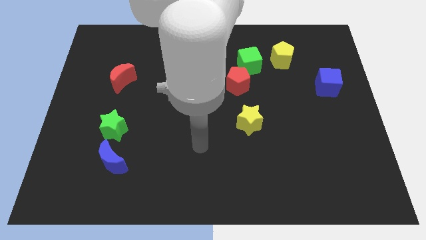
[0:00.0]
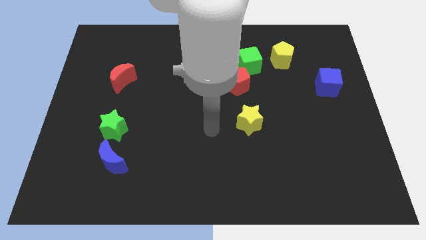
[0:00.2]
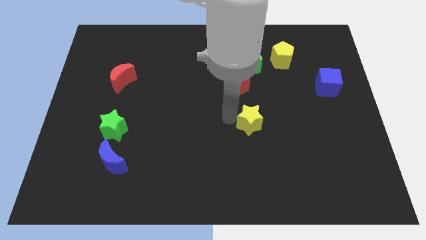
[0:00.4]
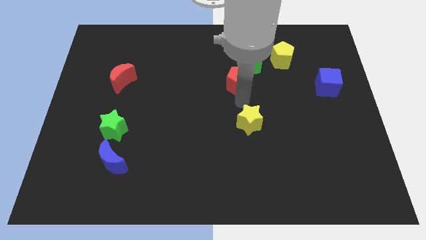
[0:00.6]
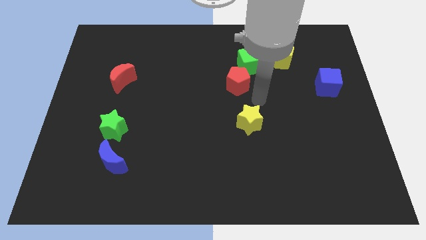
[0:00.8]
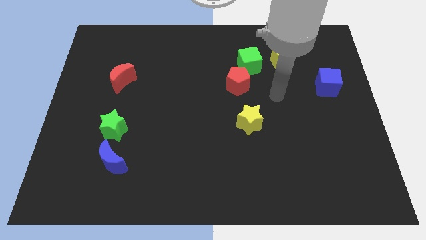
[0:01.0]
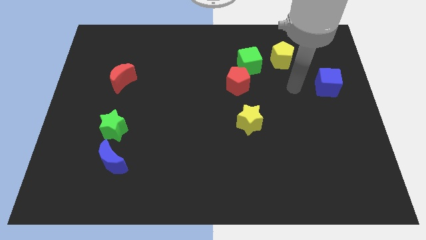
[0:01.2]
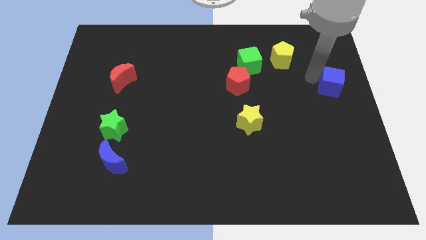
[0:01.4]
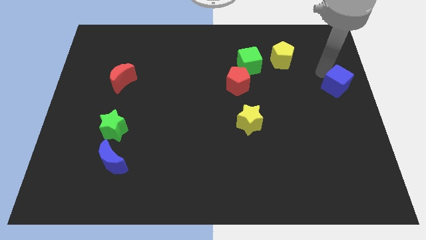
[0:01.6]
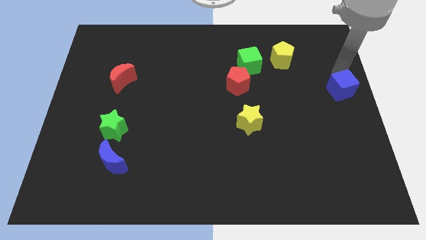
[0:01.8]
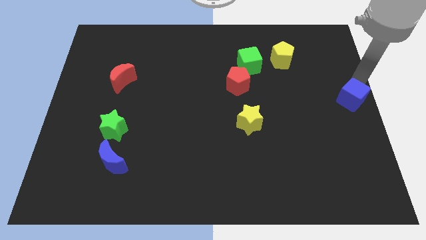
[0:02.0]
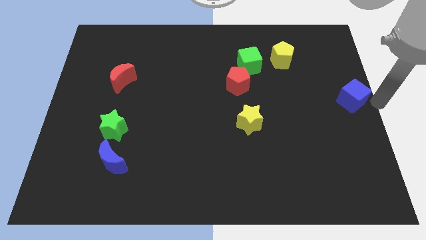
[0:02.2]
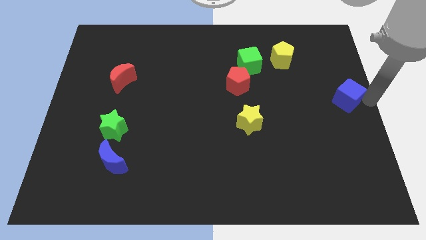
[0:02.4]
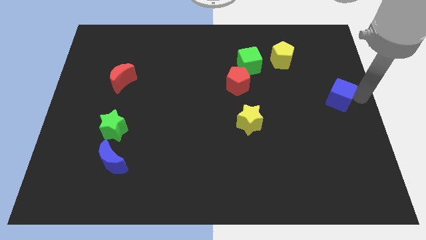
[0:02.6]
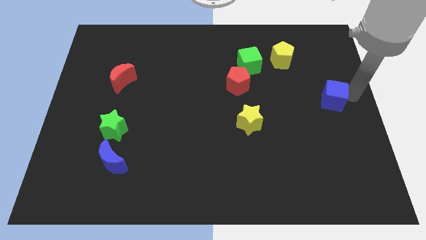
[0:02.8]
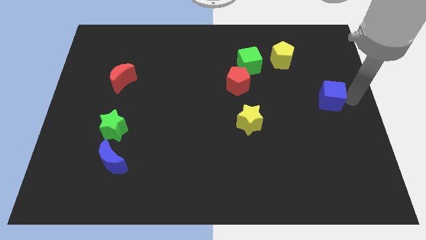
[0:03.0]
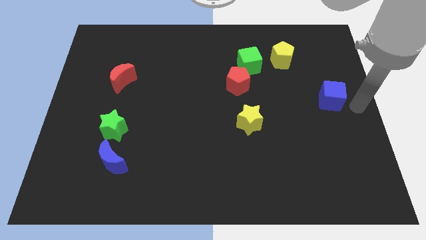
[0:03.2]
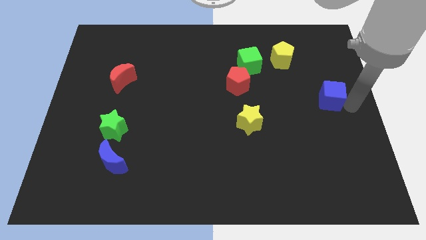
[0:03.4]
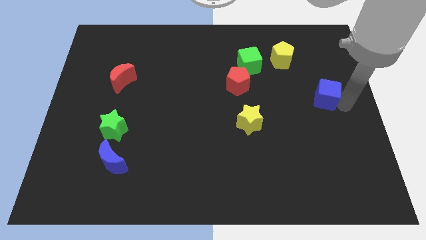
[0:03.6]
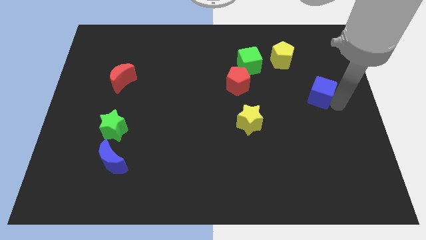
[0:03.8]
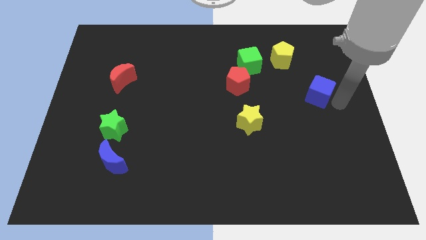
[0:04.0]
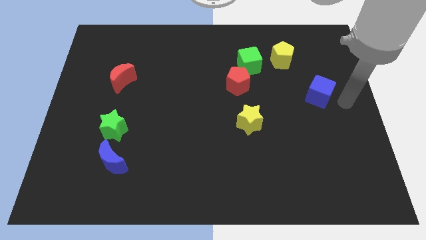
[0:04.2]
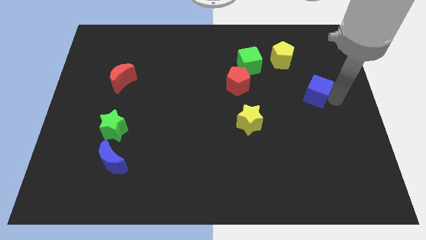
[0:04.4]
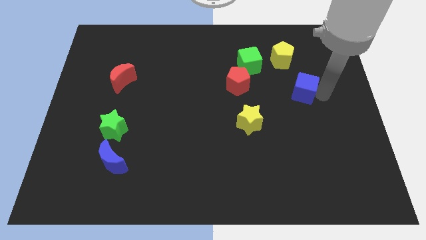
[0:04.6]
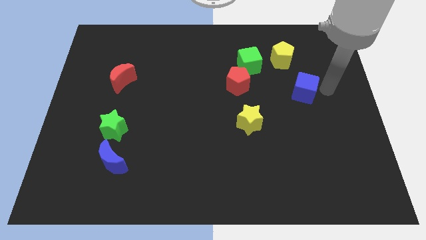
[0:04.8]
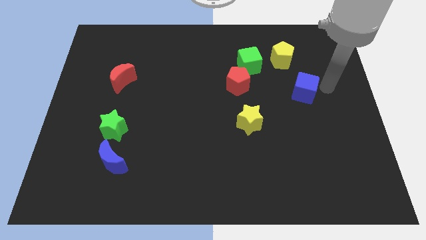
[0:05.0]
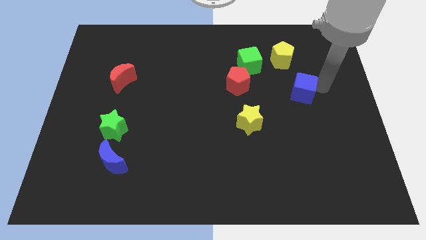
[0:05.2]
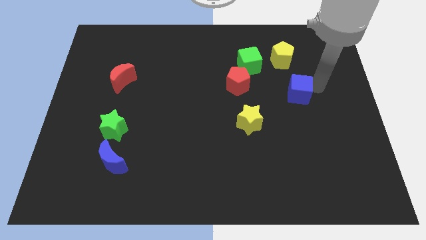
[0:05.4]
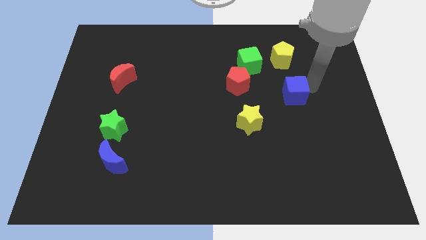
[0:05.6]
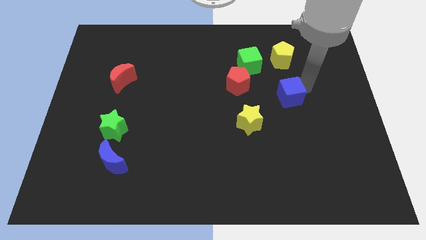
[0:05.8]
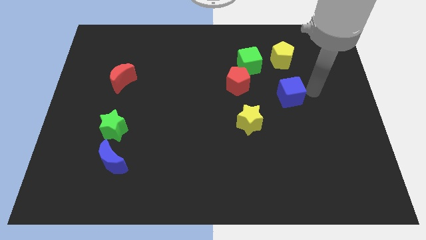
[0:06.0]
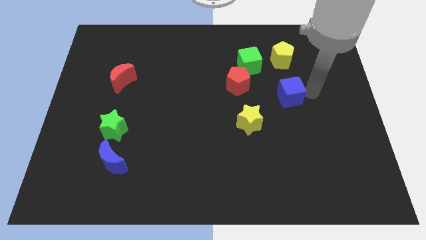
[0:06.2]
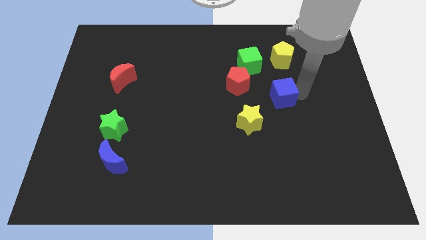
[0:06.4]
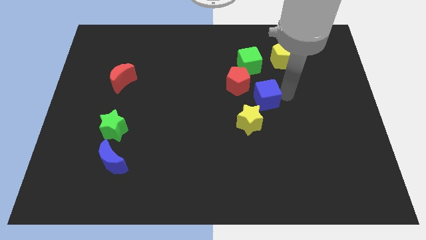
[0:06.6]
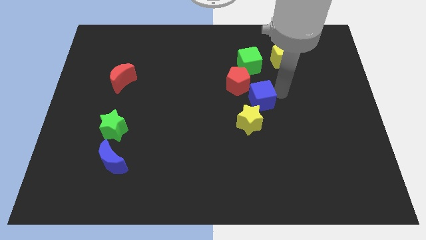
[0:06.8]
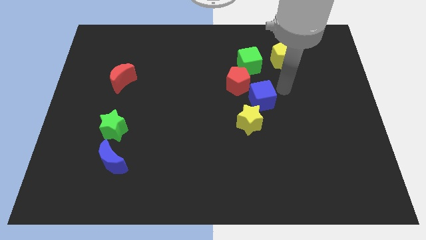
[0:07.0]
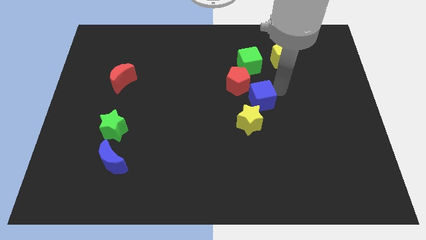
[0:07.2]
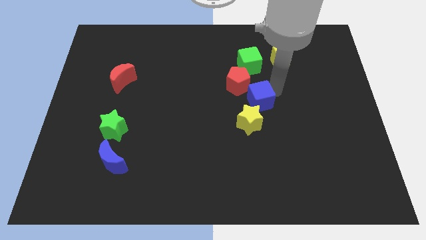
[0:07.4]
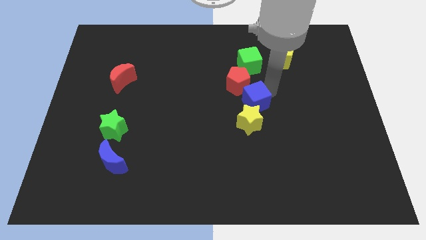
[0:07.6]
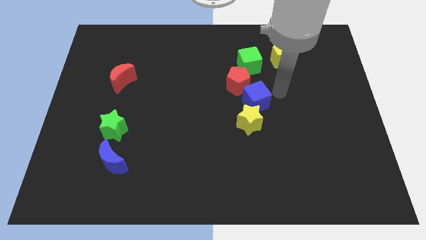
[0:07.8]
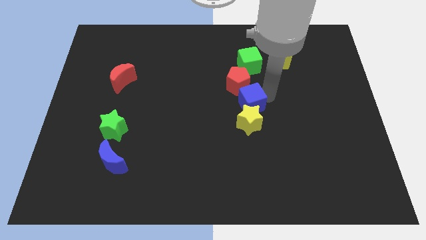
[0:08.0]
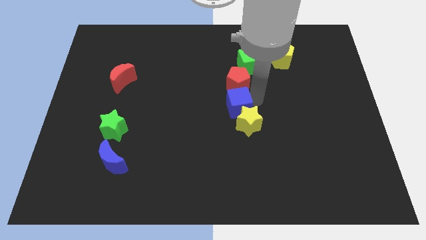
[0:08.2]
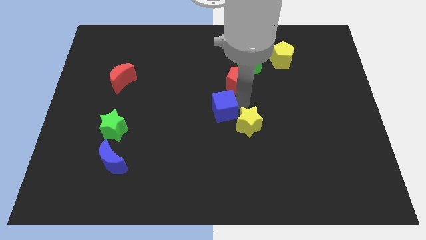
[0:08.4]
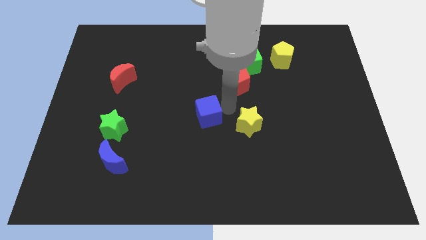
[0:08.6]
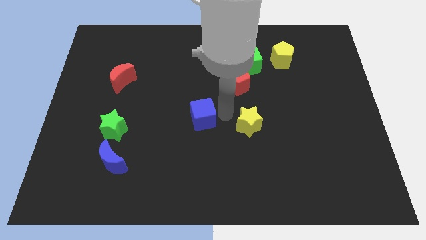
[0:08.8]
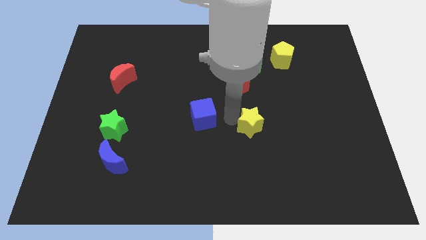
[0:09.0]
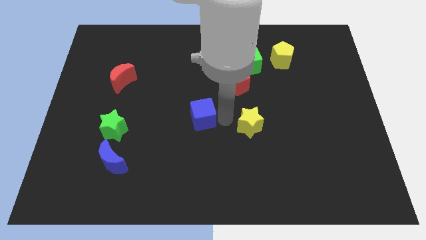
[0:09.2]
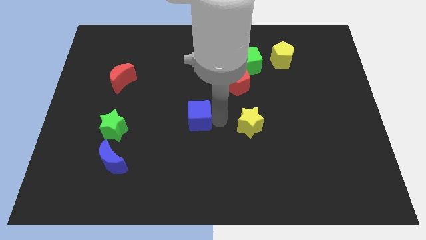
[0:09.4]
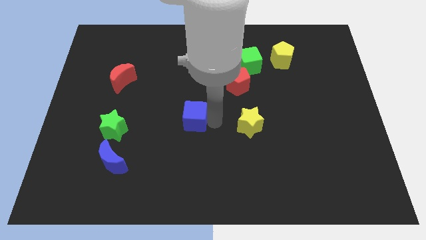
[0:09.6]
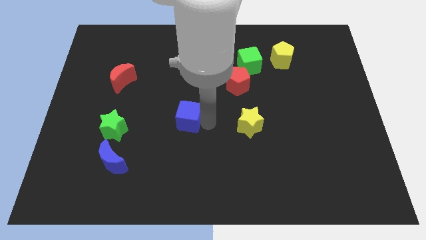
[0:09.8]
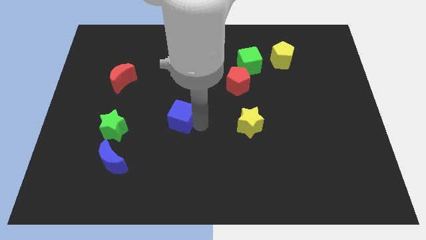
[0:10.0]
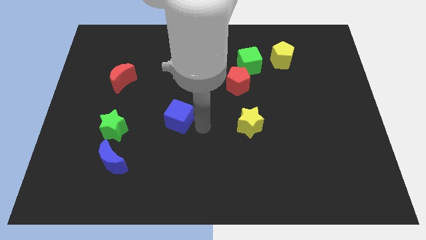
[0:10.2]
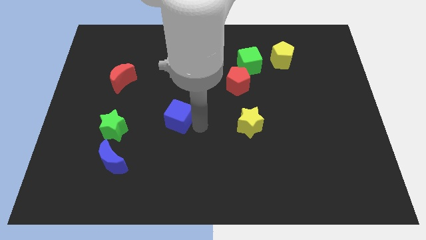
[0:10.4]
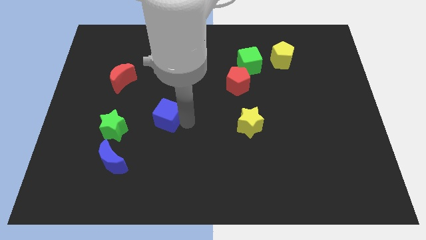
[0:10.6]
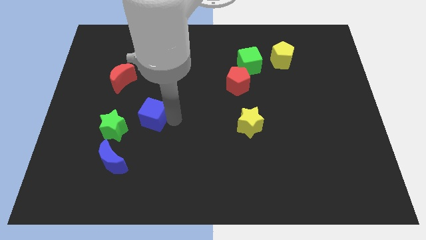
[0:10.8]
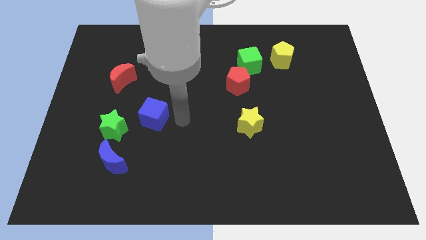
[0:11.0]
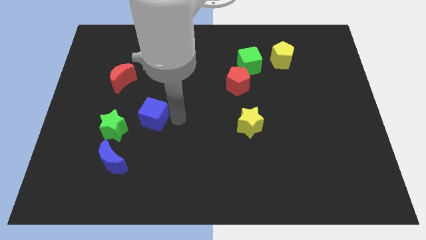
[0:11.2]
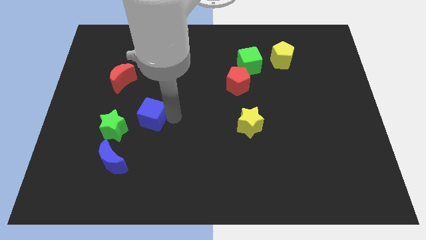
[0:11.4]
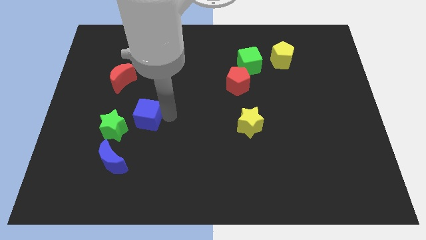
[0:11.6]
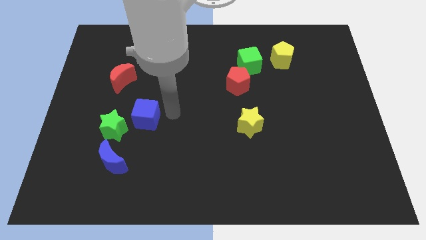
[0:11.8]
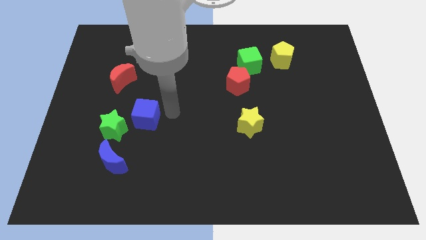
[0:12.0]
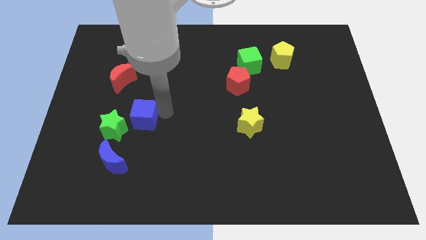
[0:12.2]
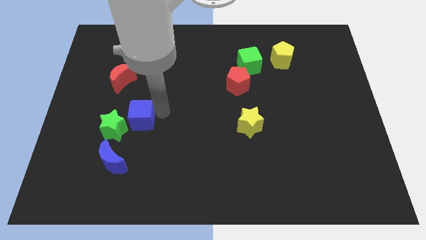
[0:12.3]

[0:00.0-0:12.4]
move the blue cube to the top side of the blue moon

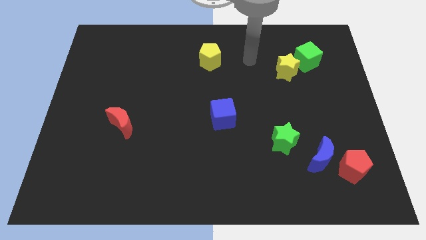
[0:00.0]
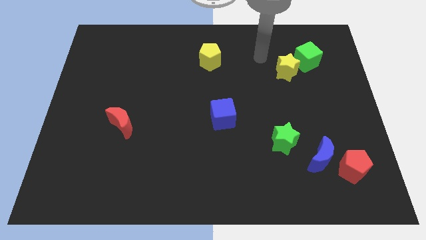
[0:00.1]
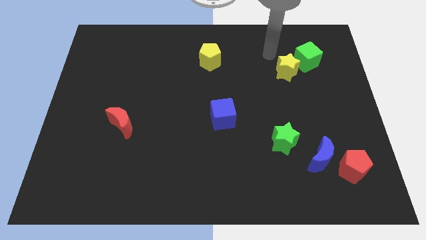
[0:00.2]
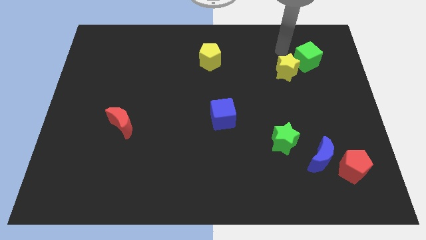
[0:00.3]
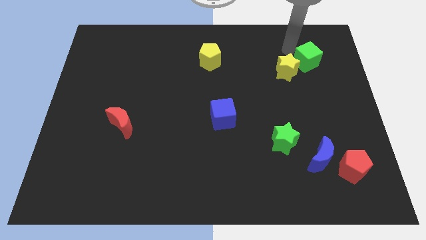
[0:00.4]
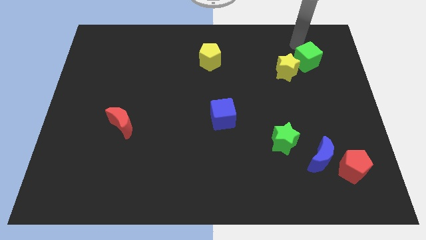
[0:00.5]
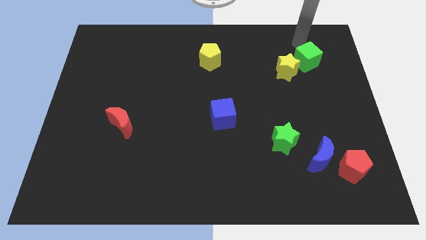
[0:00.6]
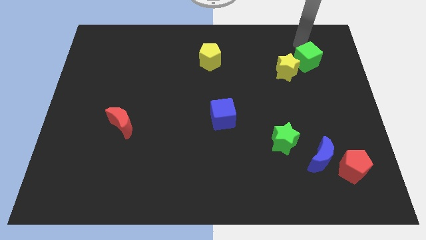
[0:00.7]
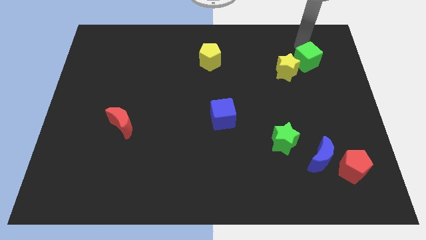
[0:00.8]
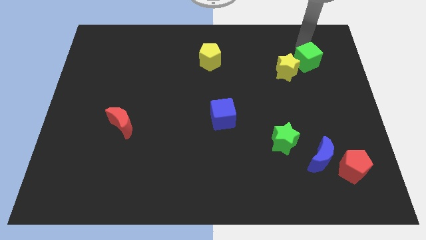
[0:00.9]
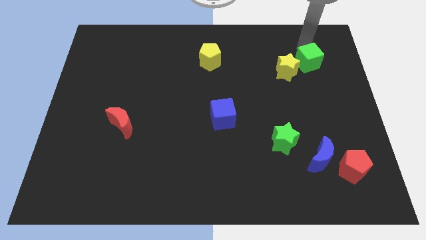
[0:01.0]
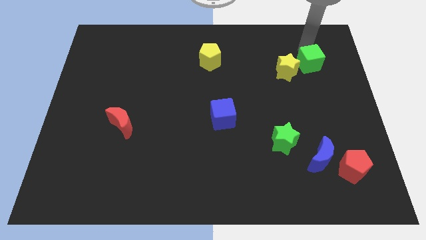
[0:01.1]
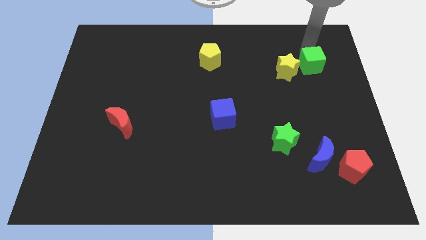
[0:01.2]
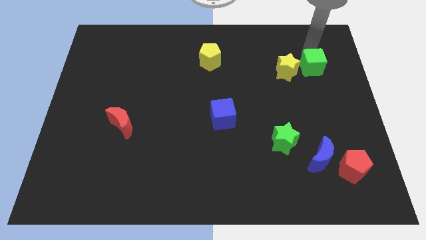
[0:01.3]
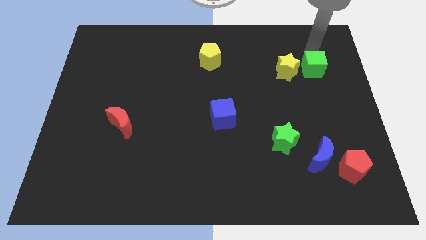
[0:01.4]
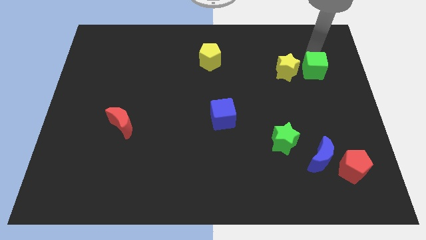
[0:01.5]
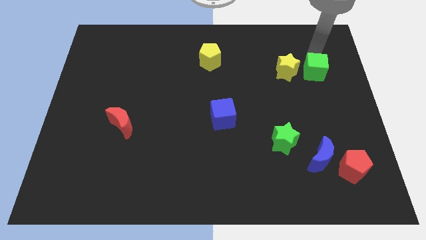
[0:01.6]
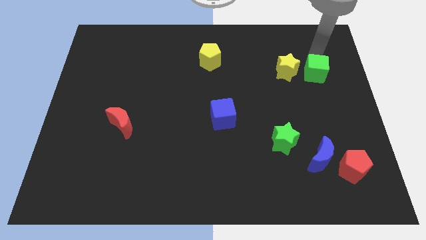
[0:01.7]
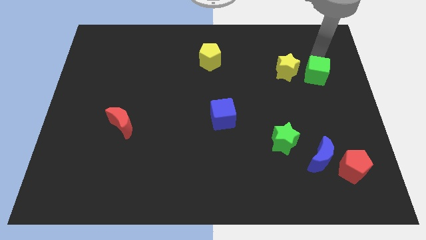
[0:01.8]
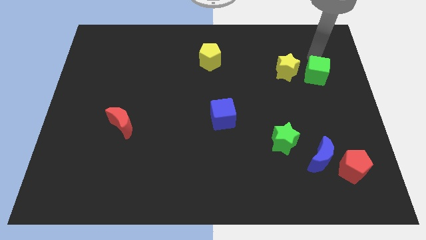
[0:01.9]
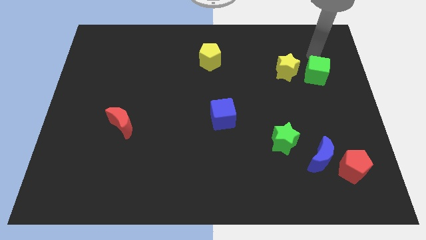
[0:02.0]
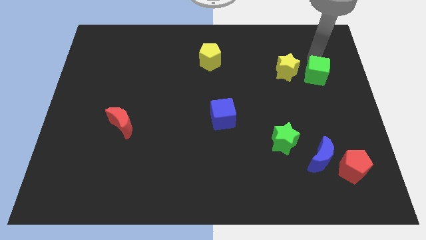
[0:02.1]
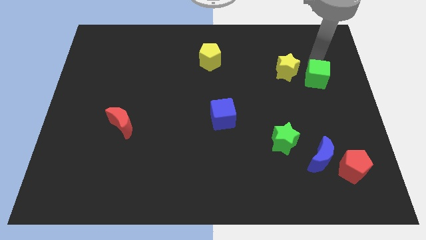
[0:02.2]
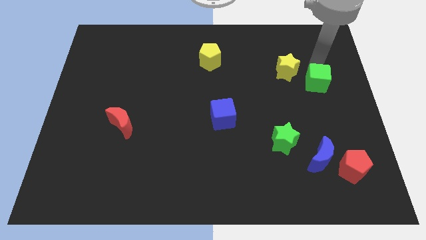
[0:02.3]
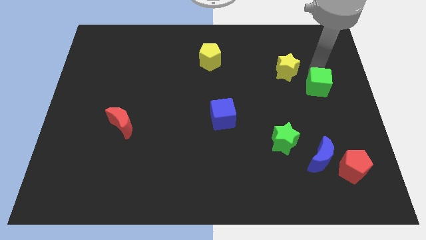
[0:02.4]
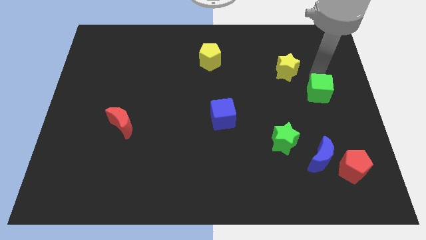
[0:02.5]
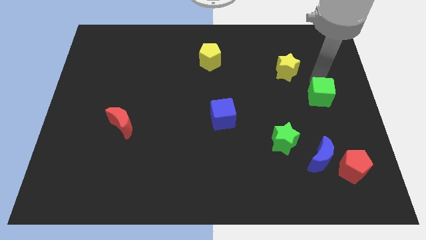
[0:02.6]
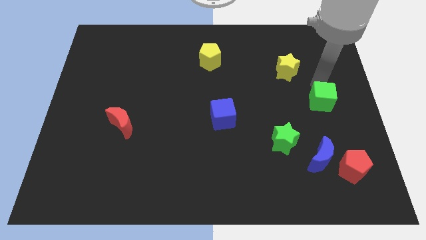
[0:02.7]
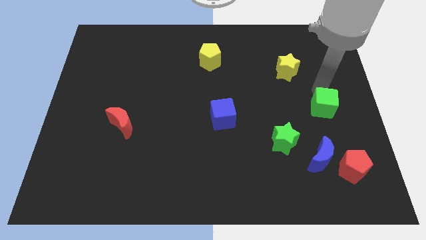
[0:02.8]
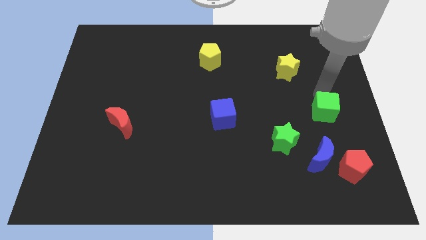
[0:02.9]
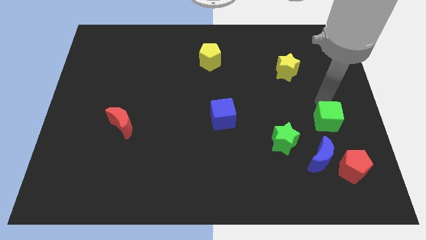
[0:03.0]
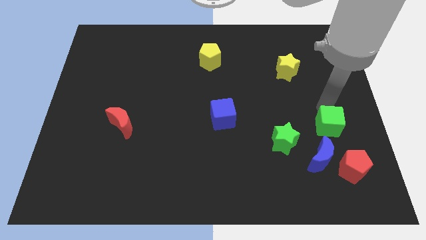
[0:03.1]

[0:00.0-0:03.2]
push the green cube right of the green star
